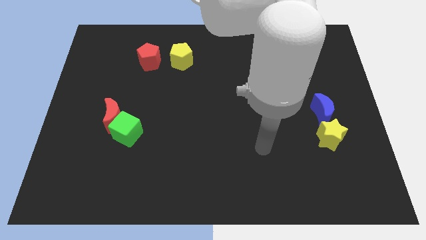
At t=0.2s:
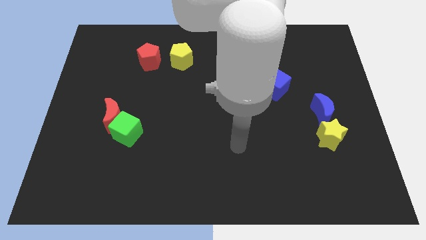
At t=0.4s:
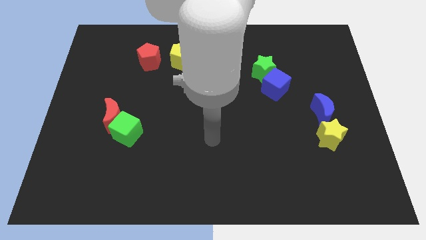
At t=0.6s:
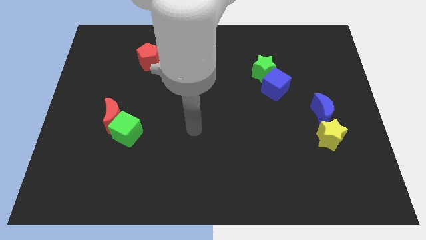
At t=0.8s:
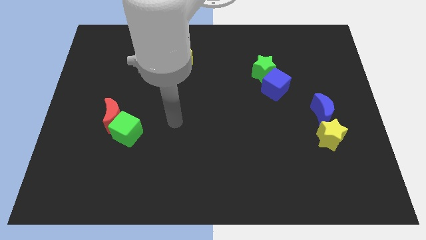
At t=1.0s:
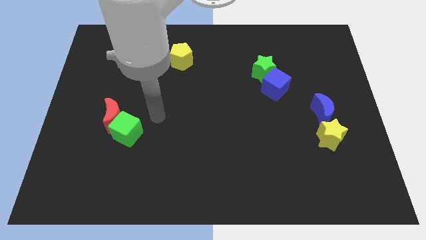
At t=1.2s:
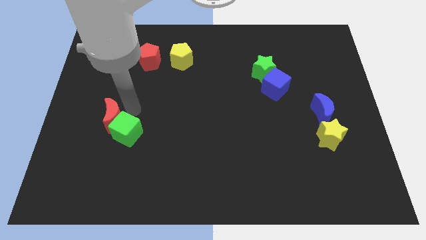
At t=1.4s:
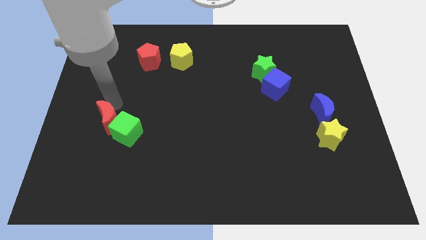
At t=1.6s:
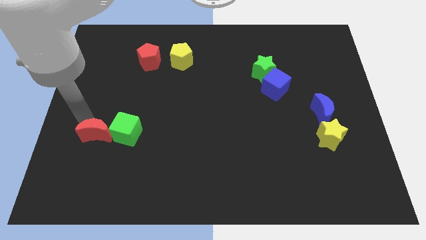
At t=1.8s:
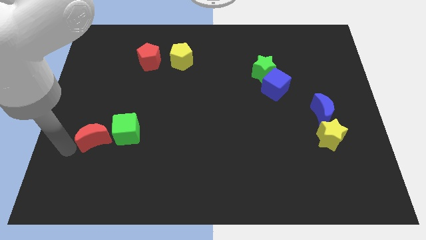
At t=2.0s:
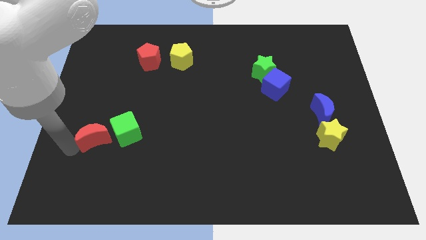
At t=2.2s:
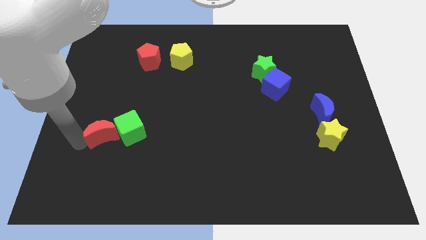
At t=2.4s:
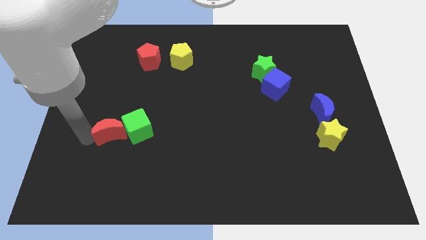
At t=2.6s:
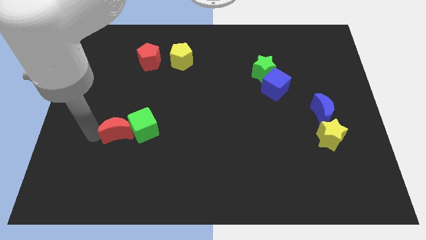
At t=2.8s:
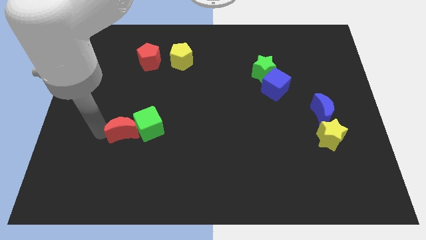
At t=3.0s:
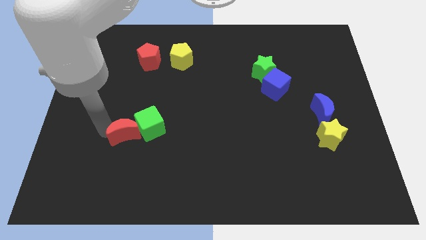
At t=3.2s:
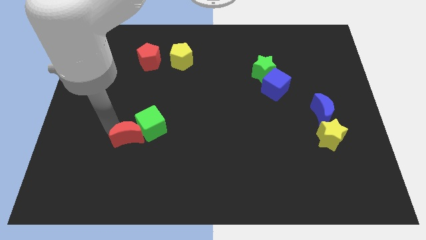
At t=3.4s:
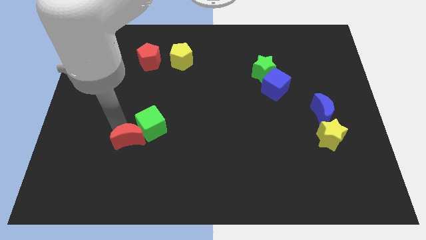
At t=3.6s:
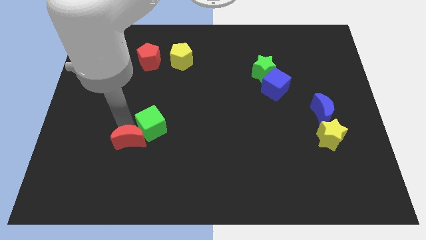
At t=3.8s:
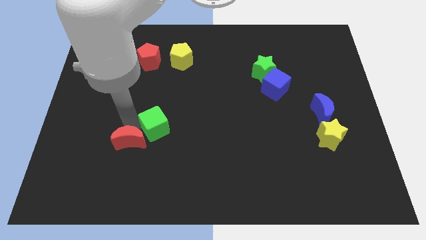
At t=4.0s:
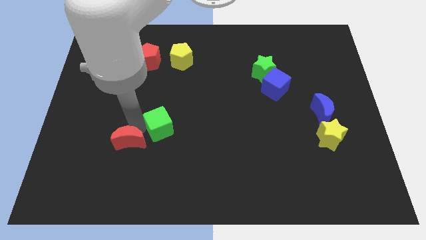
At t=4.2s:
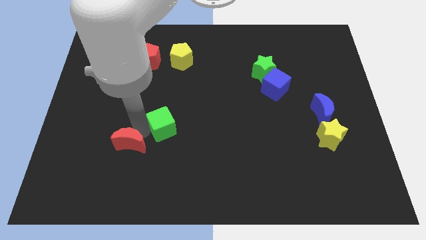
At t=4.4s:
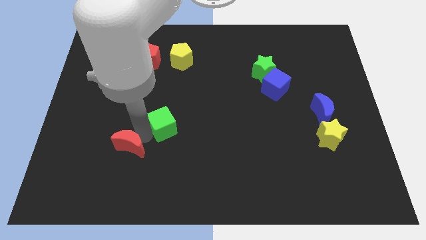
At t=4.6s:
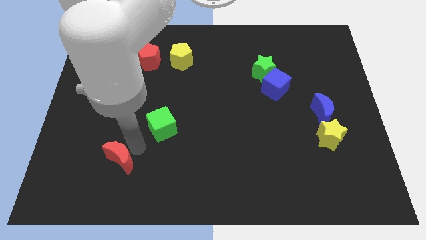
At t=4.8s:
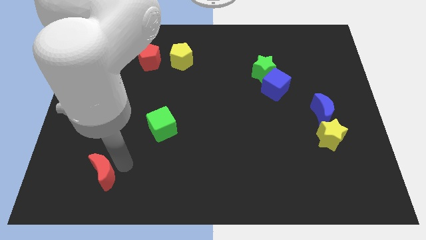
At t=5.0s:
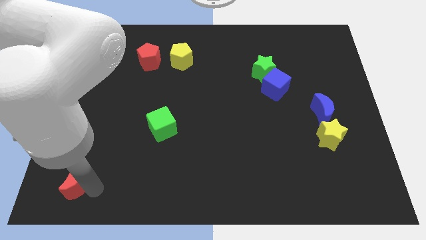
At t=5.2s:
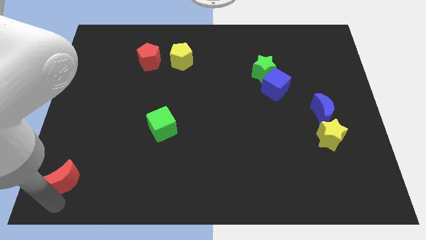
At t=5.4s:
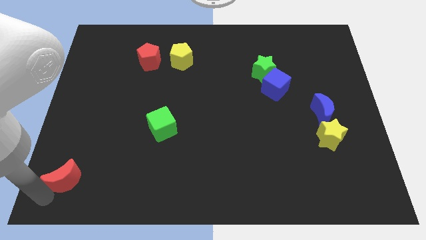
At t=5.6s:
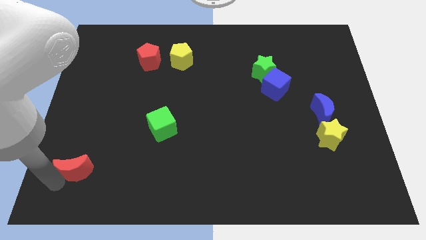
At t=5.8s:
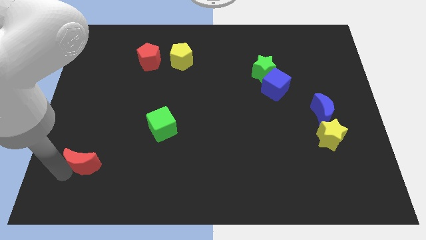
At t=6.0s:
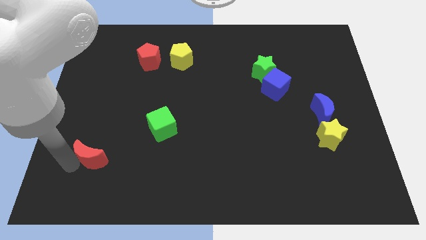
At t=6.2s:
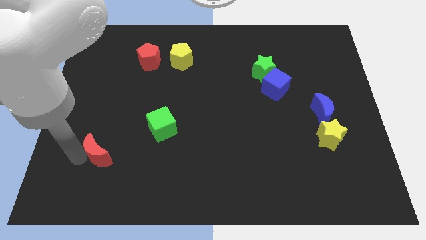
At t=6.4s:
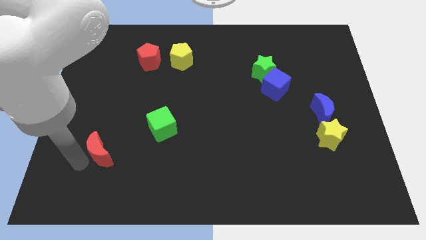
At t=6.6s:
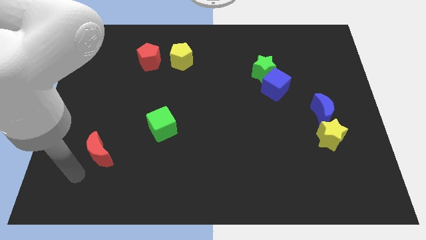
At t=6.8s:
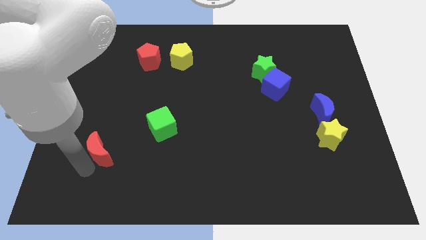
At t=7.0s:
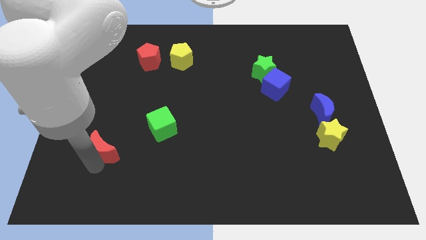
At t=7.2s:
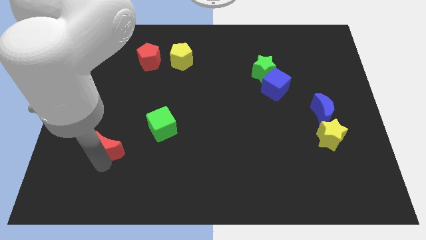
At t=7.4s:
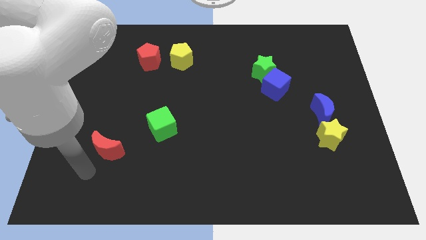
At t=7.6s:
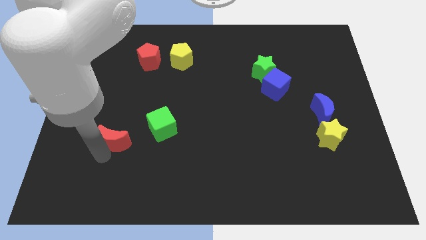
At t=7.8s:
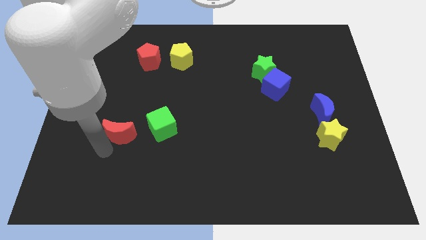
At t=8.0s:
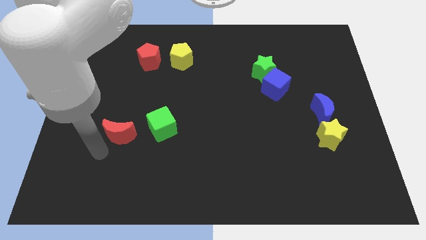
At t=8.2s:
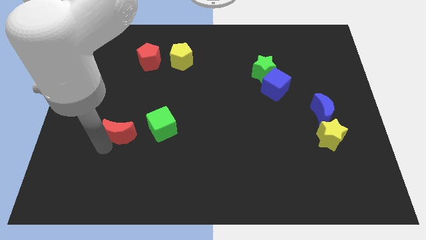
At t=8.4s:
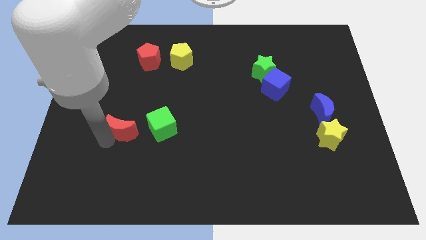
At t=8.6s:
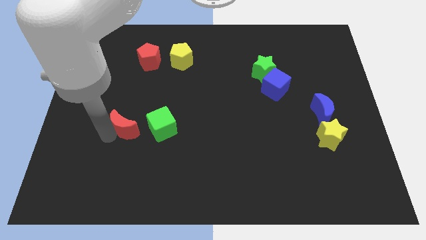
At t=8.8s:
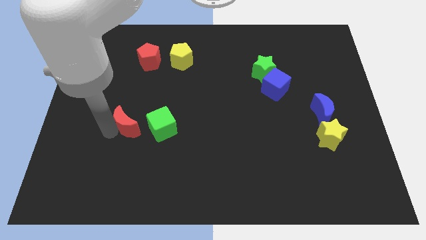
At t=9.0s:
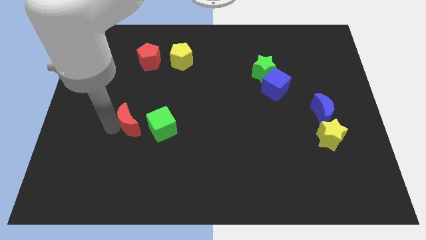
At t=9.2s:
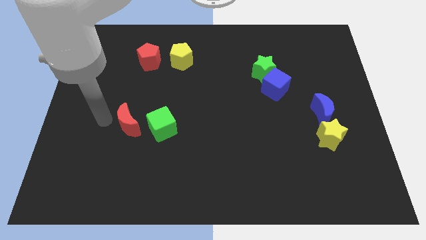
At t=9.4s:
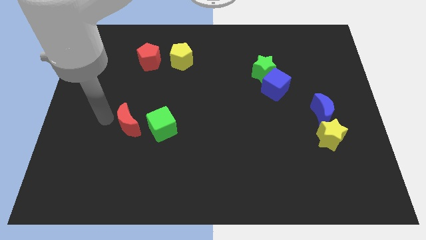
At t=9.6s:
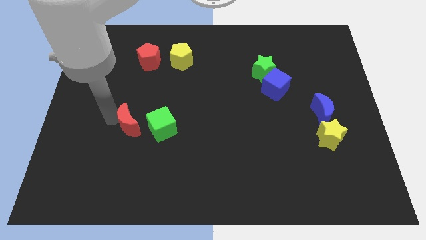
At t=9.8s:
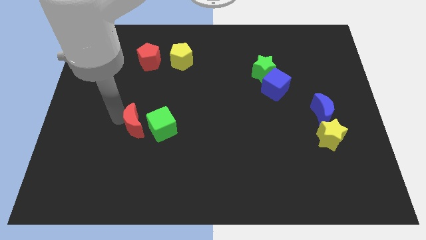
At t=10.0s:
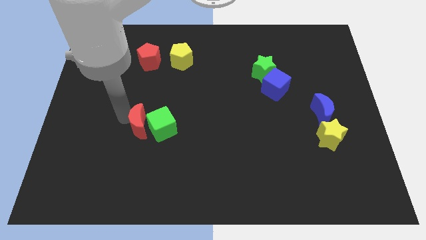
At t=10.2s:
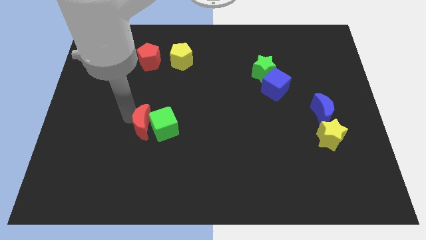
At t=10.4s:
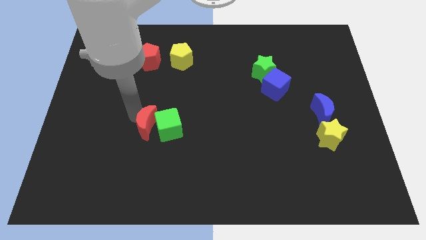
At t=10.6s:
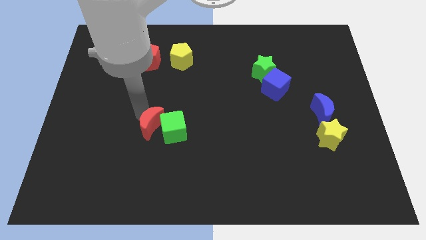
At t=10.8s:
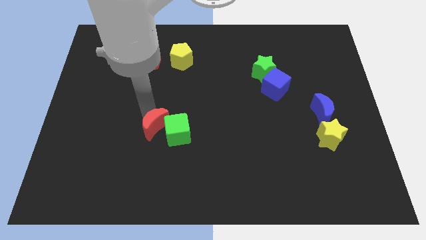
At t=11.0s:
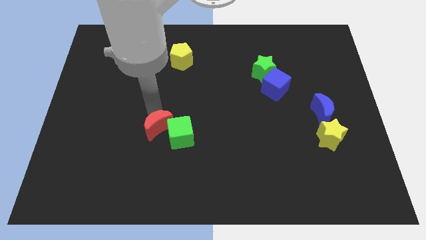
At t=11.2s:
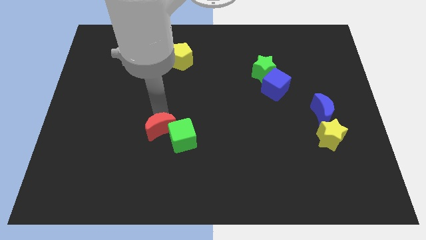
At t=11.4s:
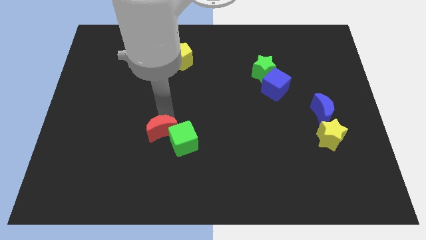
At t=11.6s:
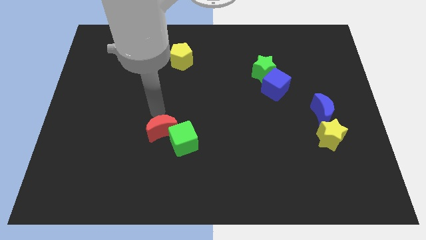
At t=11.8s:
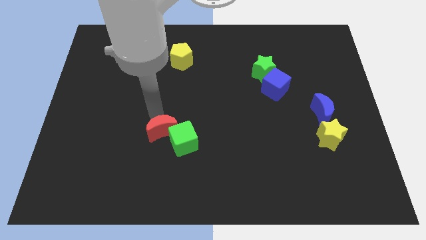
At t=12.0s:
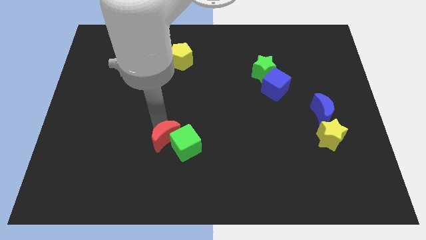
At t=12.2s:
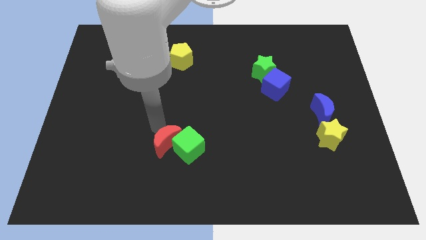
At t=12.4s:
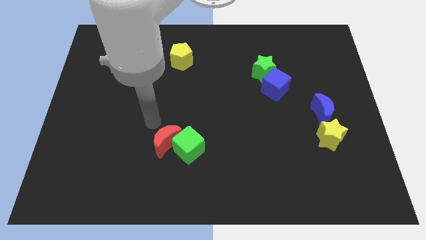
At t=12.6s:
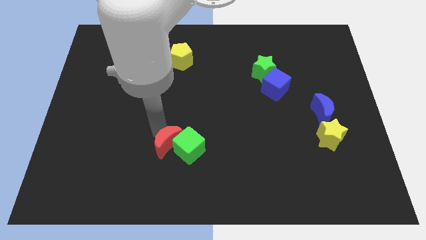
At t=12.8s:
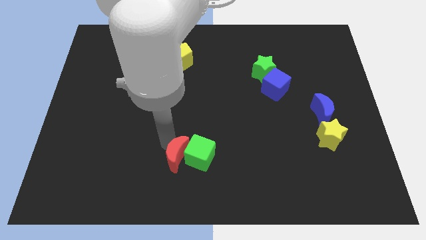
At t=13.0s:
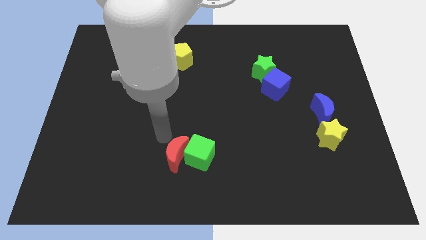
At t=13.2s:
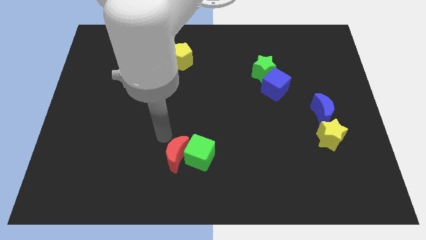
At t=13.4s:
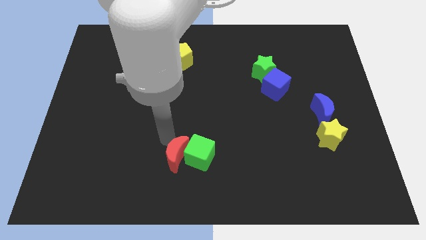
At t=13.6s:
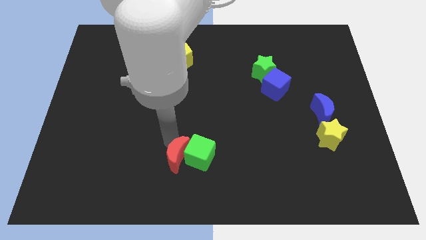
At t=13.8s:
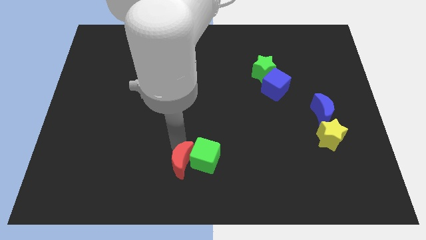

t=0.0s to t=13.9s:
move the red moon to the bottom side
